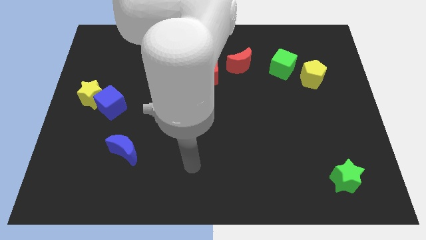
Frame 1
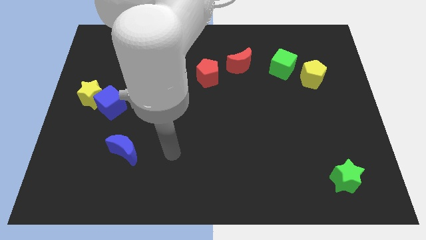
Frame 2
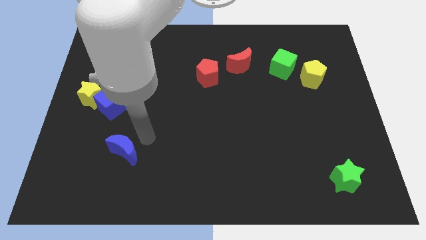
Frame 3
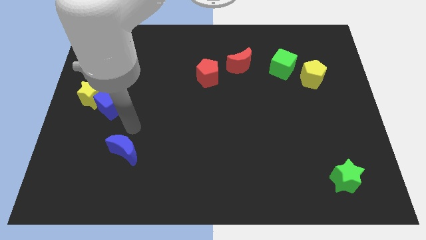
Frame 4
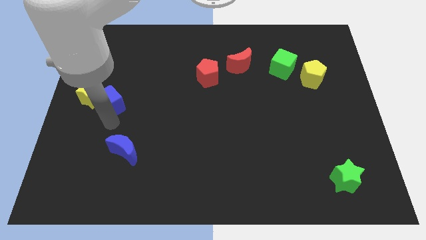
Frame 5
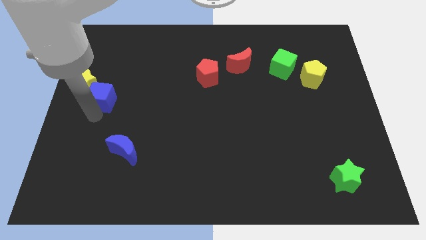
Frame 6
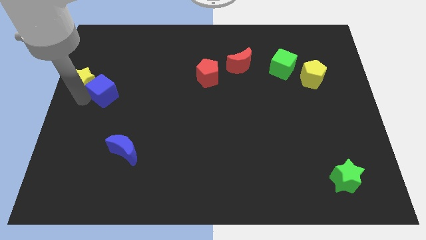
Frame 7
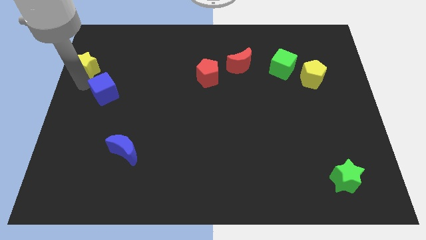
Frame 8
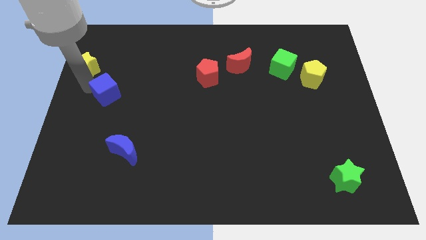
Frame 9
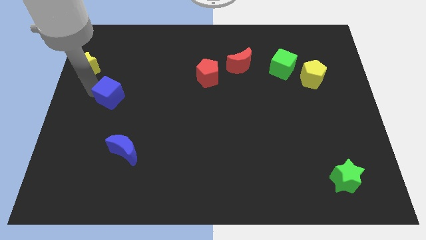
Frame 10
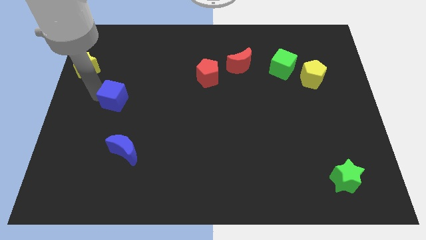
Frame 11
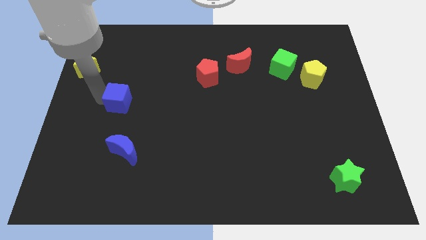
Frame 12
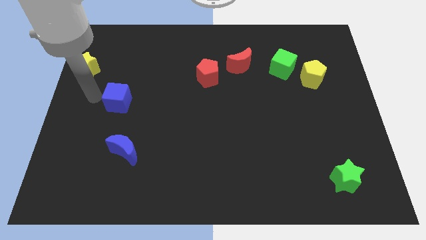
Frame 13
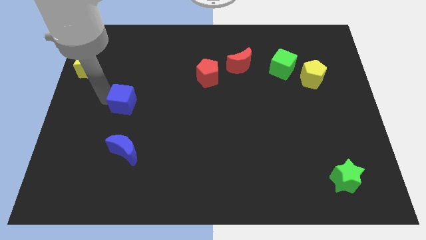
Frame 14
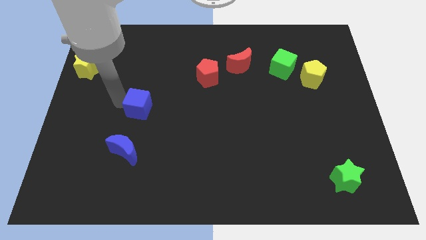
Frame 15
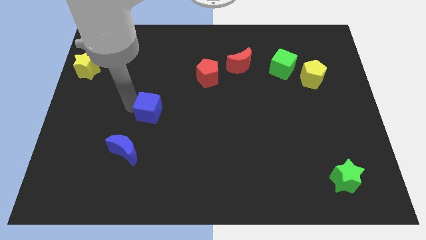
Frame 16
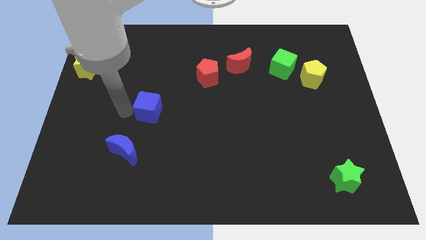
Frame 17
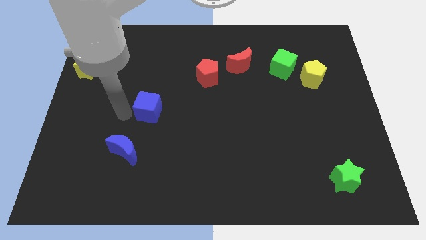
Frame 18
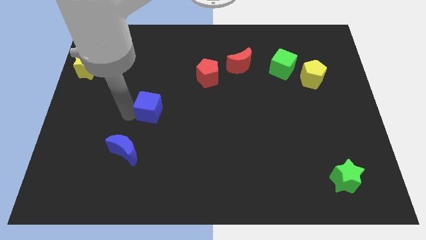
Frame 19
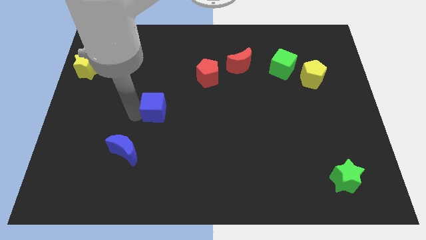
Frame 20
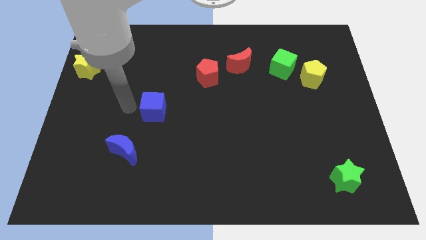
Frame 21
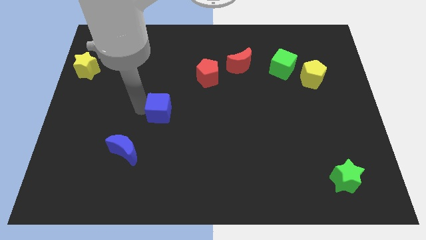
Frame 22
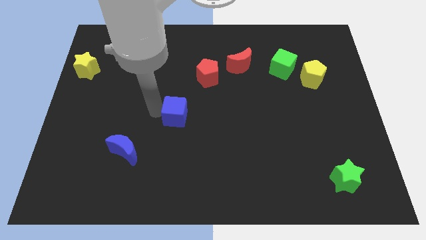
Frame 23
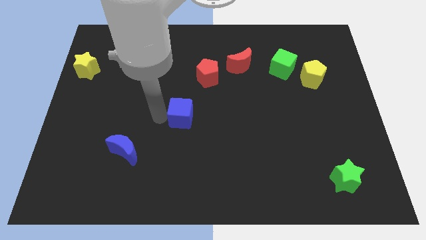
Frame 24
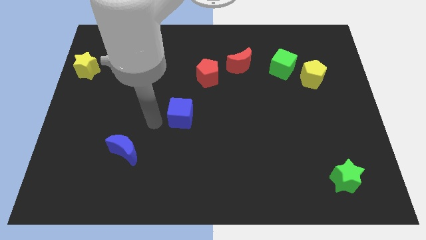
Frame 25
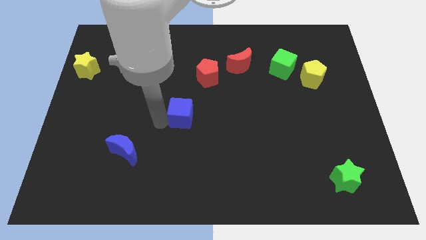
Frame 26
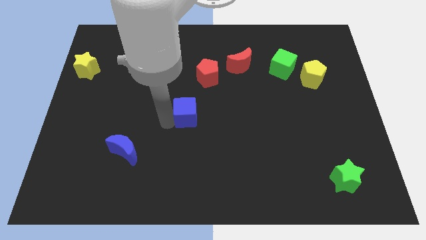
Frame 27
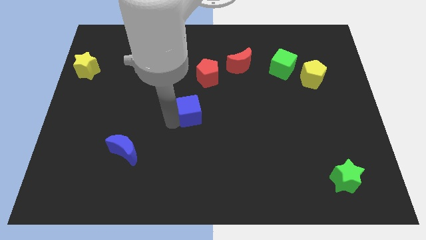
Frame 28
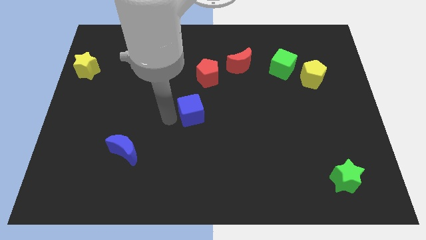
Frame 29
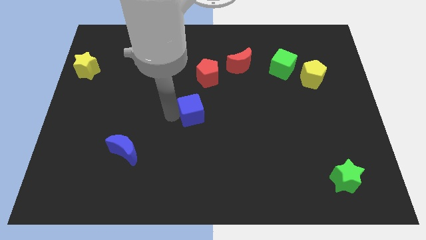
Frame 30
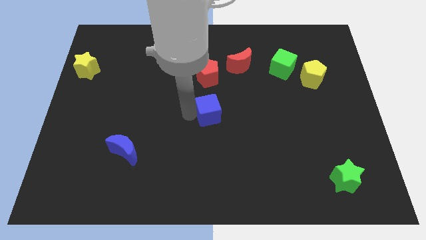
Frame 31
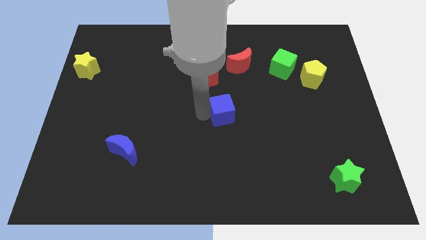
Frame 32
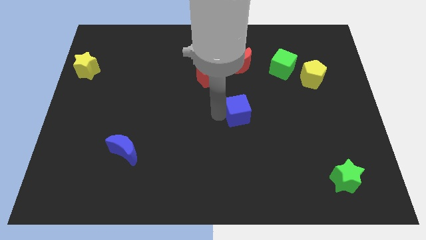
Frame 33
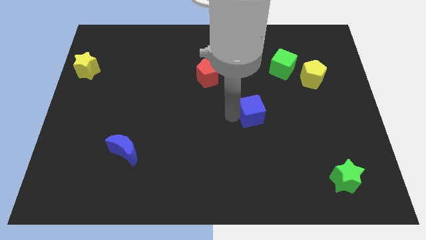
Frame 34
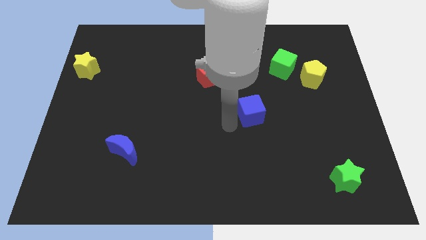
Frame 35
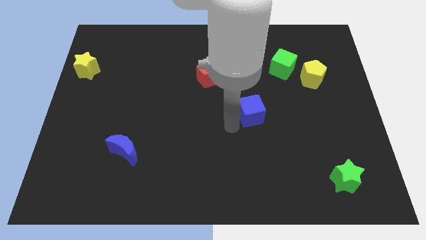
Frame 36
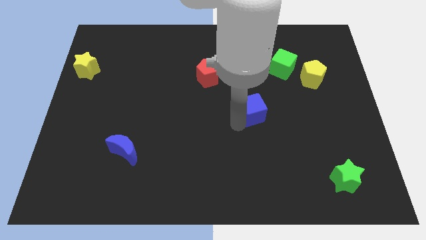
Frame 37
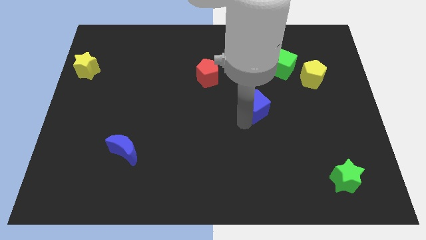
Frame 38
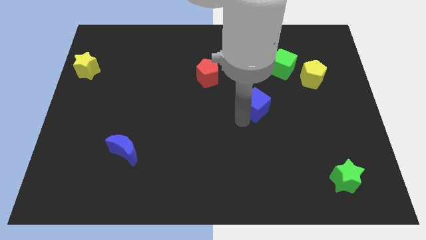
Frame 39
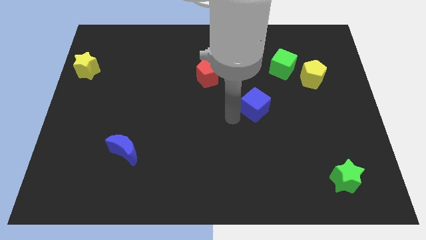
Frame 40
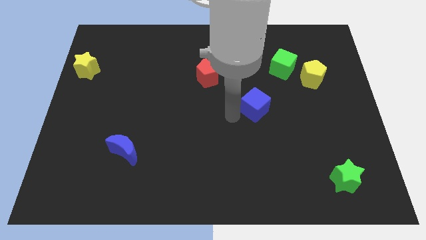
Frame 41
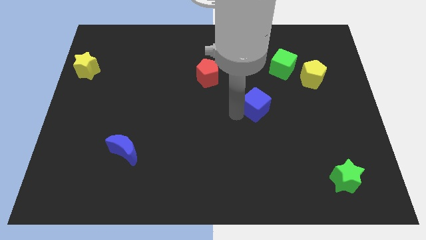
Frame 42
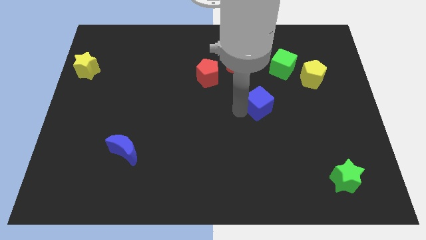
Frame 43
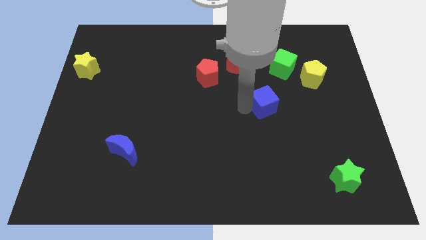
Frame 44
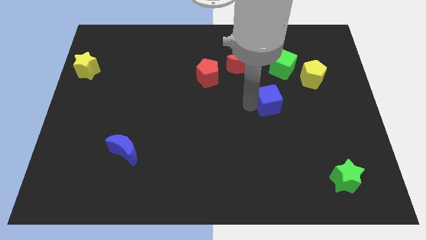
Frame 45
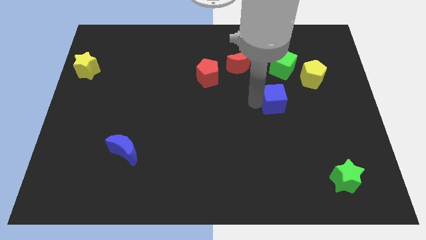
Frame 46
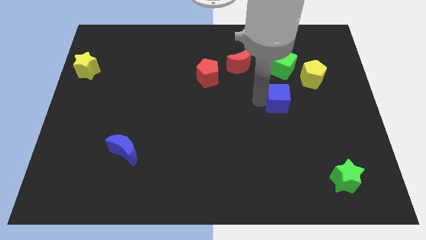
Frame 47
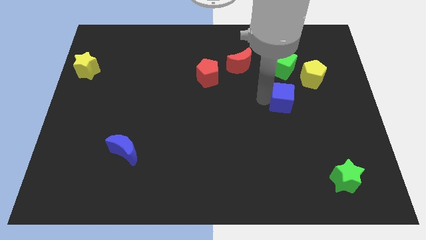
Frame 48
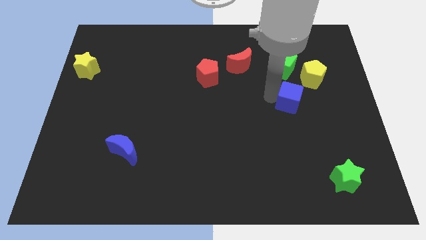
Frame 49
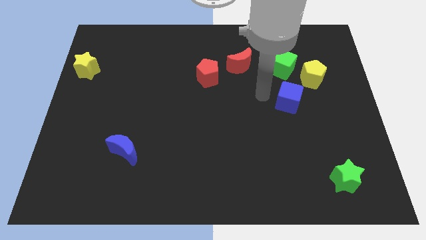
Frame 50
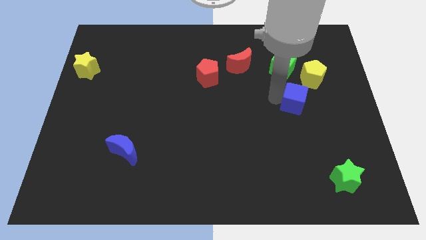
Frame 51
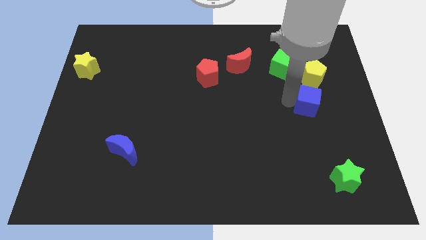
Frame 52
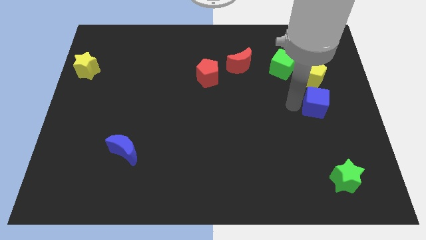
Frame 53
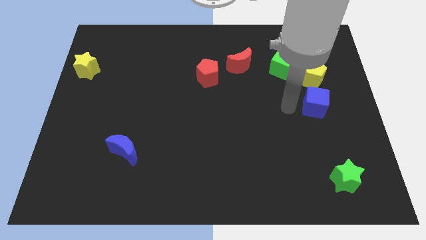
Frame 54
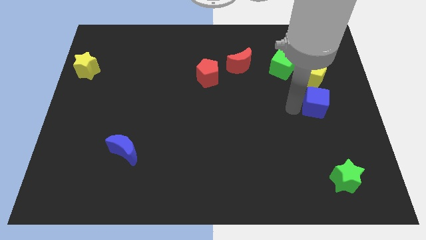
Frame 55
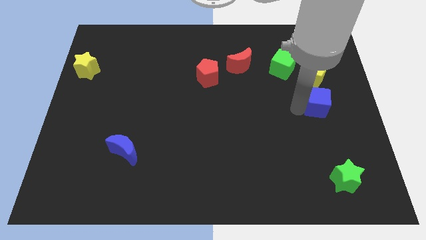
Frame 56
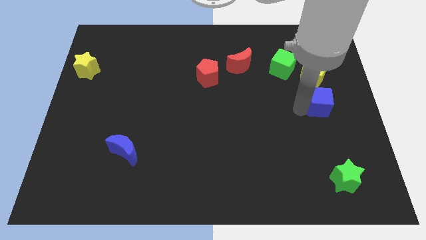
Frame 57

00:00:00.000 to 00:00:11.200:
move the blue cube to the right side
